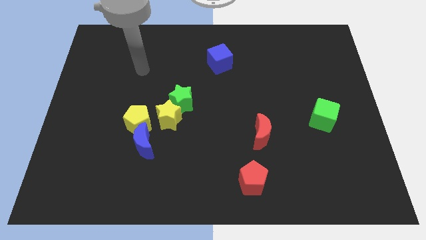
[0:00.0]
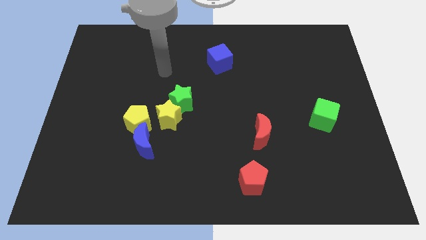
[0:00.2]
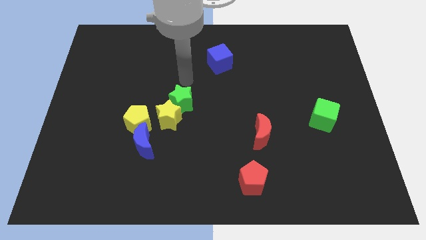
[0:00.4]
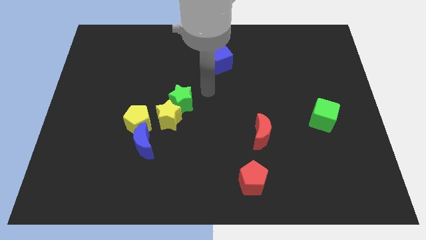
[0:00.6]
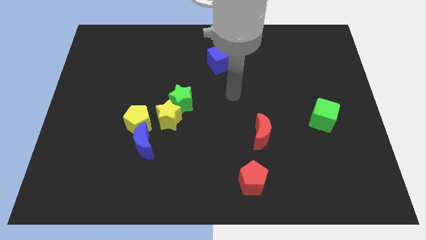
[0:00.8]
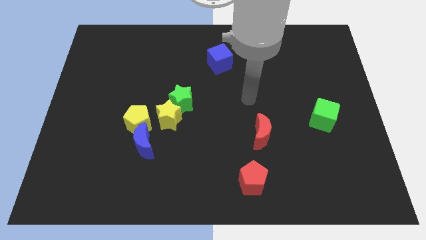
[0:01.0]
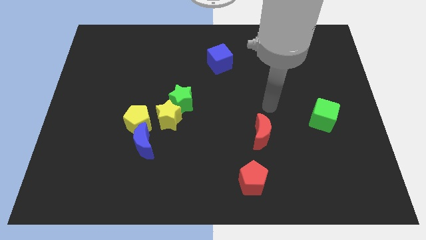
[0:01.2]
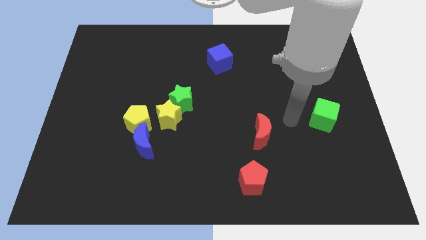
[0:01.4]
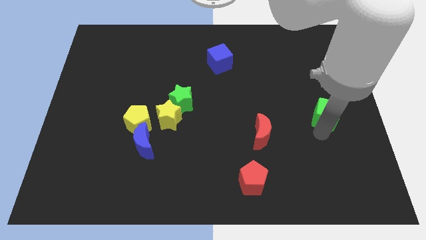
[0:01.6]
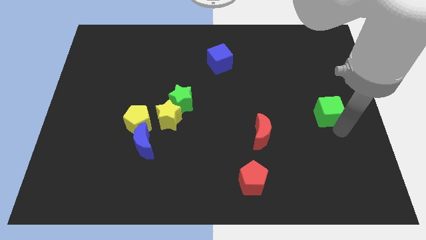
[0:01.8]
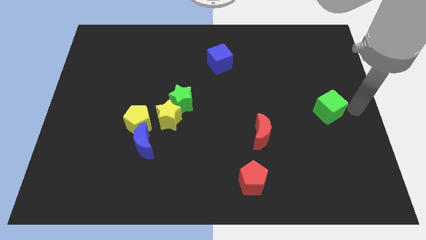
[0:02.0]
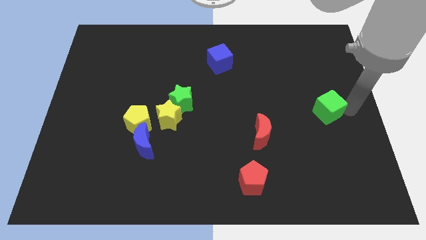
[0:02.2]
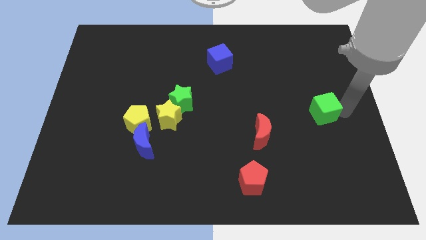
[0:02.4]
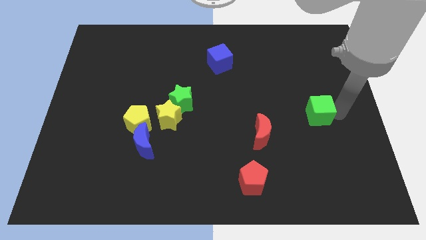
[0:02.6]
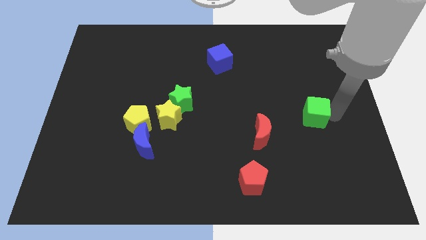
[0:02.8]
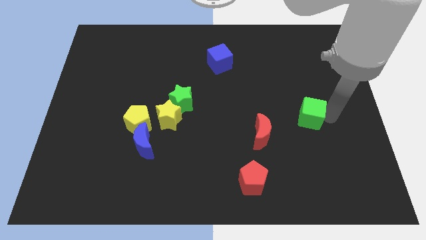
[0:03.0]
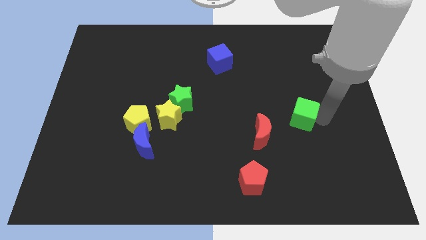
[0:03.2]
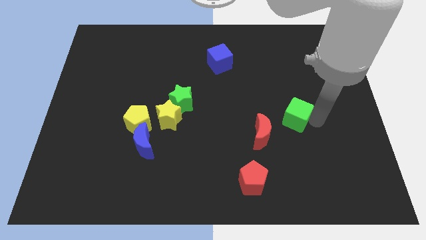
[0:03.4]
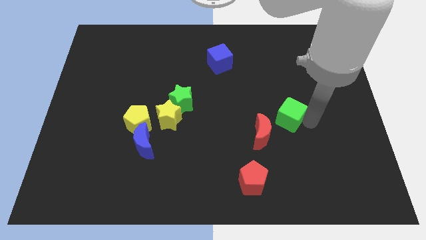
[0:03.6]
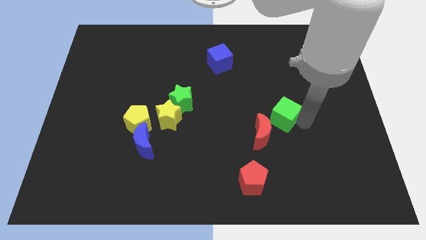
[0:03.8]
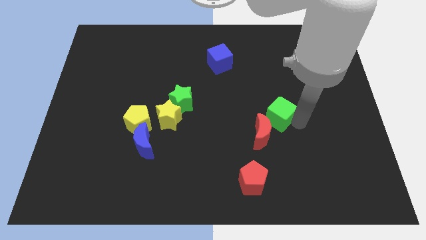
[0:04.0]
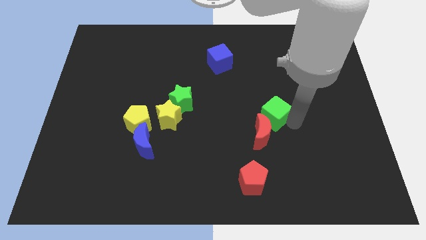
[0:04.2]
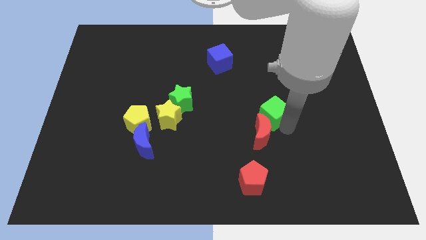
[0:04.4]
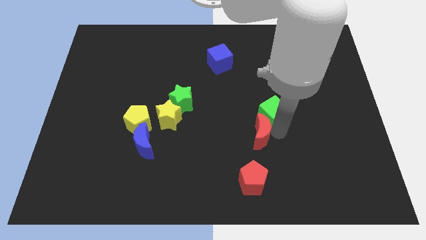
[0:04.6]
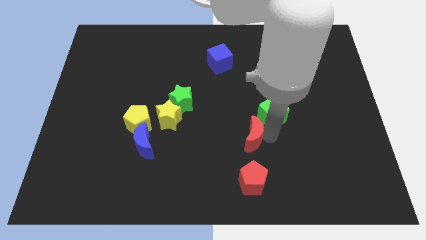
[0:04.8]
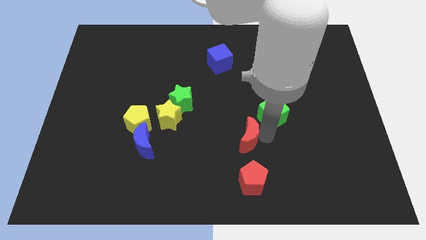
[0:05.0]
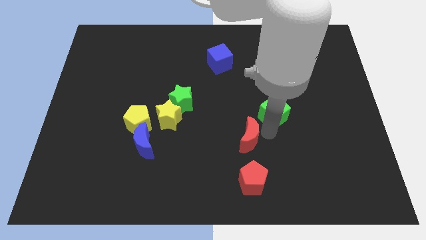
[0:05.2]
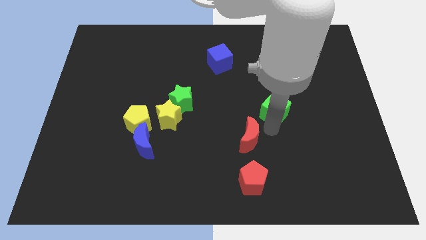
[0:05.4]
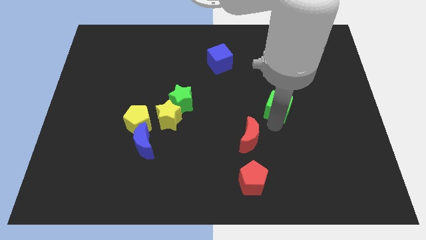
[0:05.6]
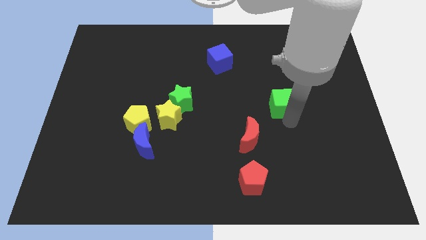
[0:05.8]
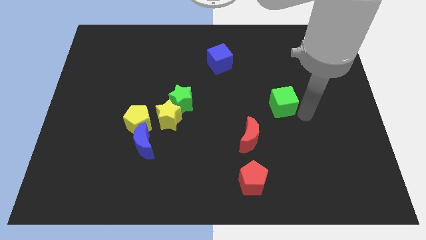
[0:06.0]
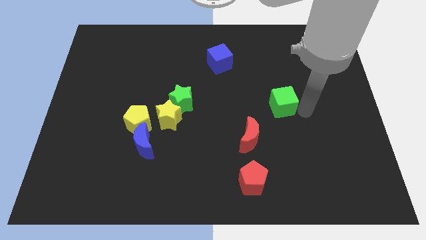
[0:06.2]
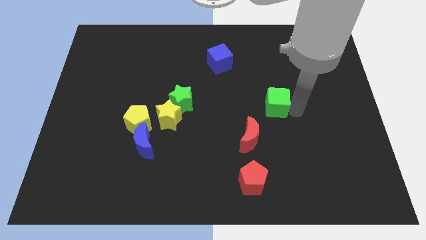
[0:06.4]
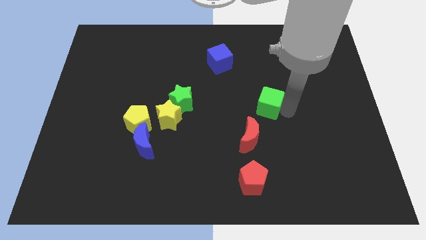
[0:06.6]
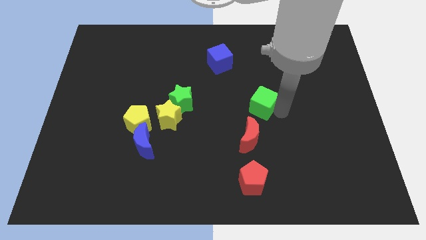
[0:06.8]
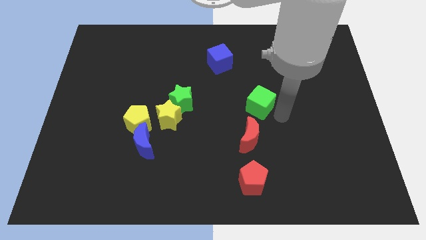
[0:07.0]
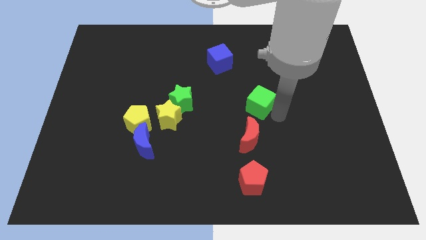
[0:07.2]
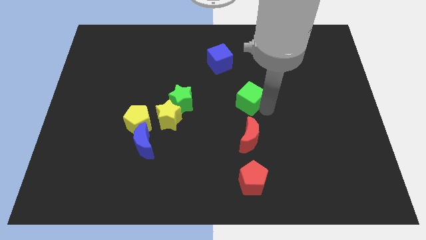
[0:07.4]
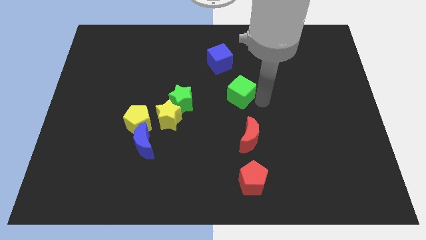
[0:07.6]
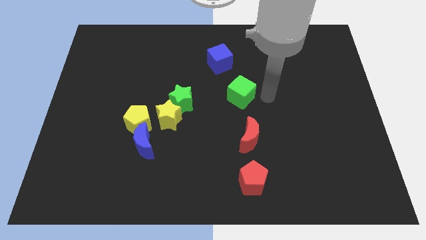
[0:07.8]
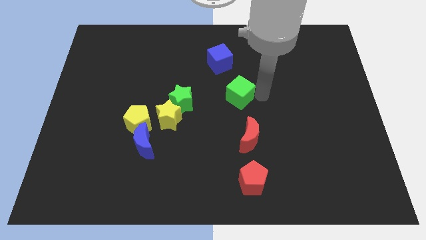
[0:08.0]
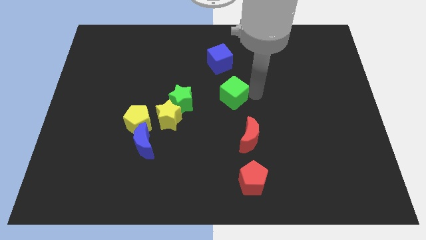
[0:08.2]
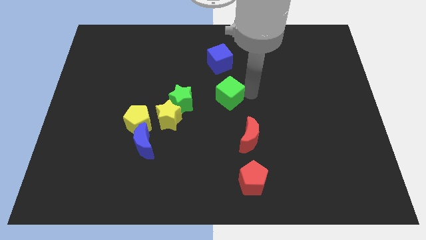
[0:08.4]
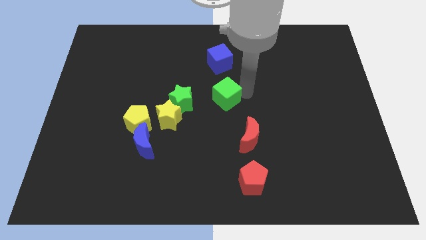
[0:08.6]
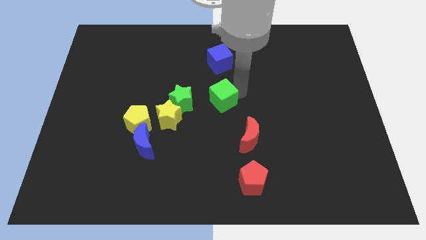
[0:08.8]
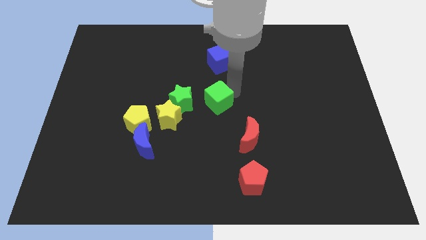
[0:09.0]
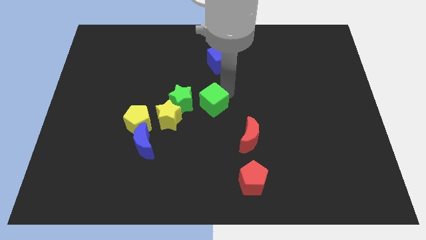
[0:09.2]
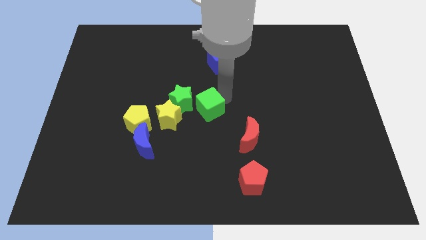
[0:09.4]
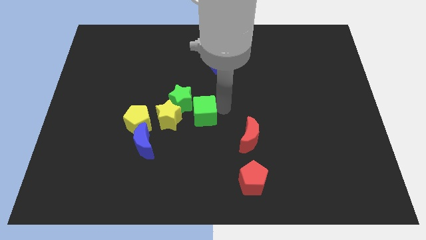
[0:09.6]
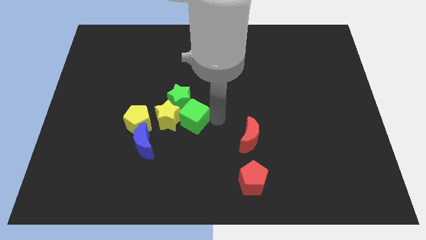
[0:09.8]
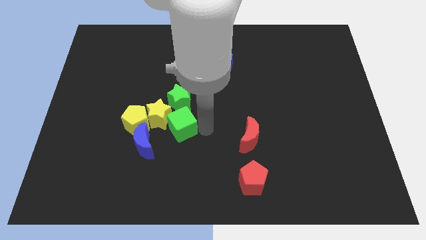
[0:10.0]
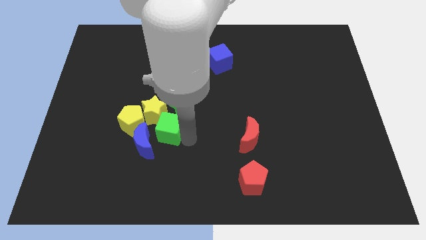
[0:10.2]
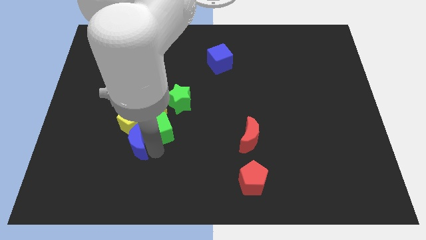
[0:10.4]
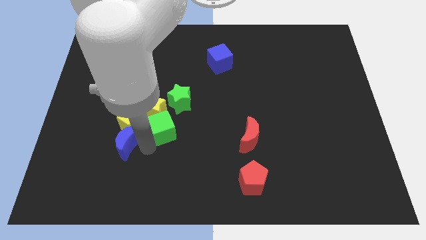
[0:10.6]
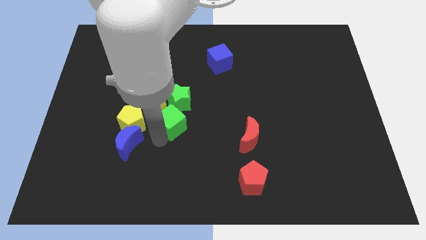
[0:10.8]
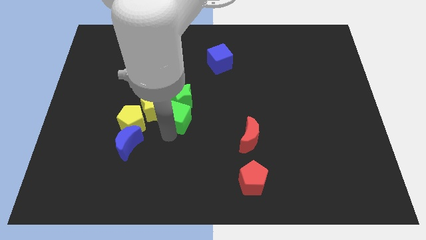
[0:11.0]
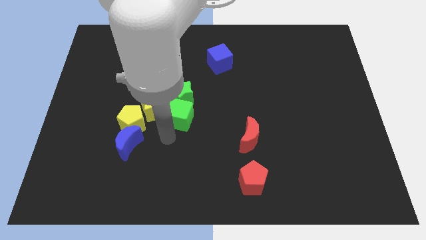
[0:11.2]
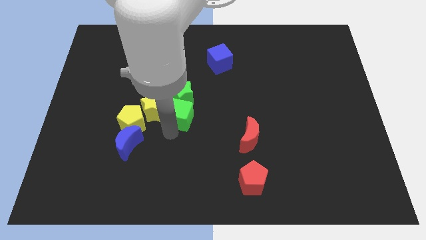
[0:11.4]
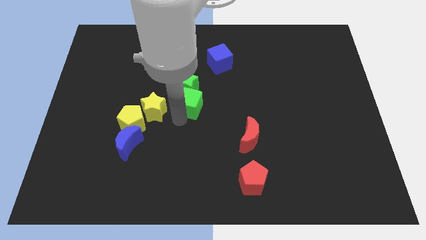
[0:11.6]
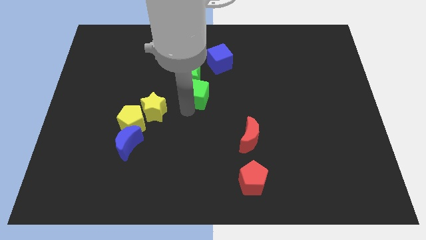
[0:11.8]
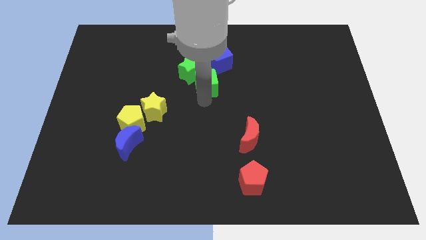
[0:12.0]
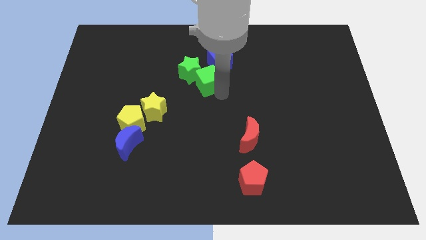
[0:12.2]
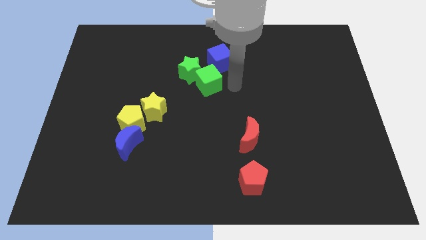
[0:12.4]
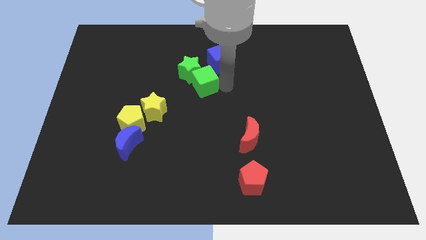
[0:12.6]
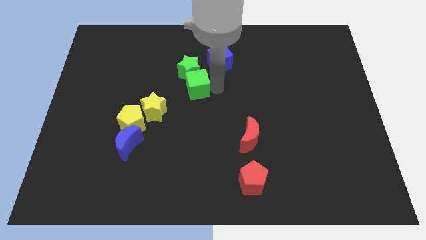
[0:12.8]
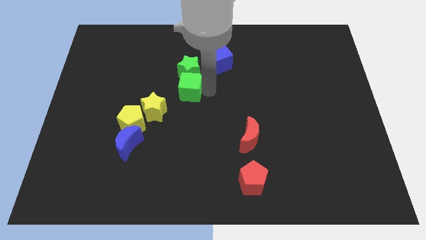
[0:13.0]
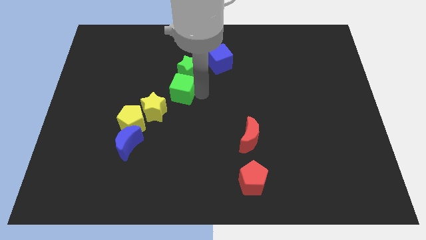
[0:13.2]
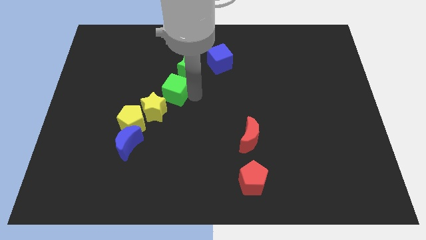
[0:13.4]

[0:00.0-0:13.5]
push the green cube to the top side of the yellow star

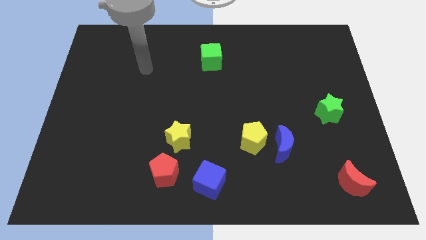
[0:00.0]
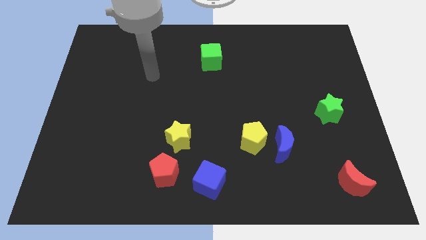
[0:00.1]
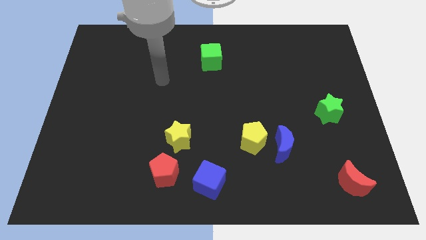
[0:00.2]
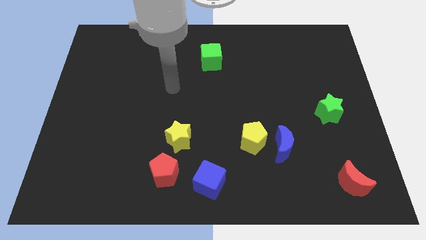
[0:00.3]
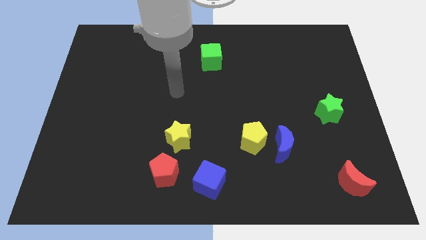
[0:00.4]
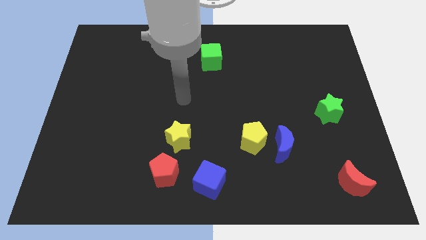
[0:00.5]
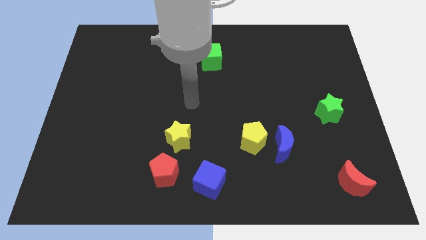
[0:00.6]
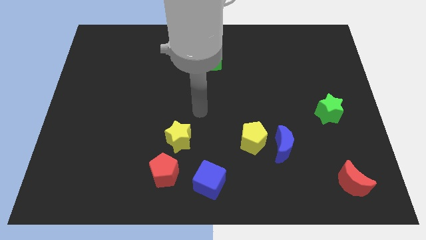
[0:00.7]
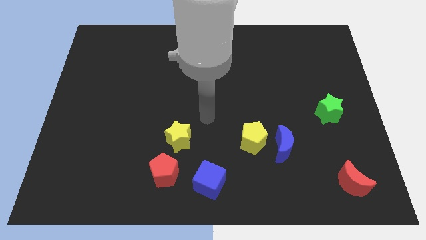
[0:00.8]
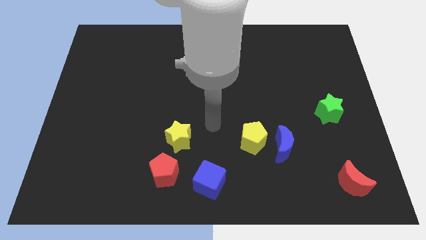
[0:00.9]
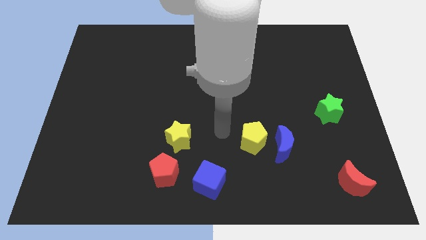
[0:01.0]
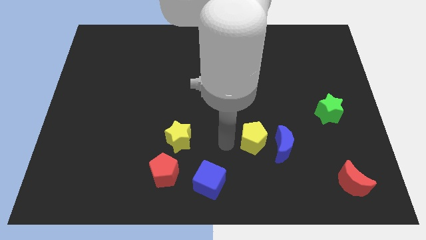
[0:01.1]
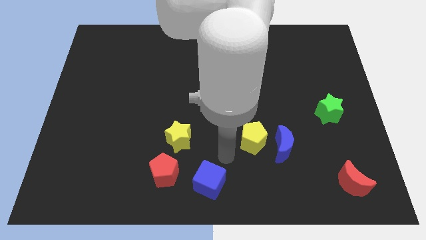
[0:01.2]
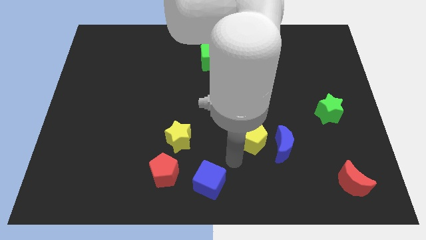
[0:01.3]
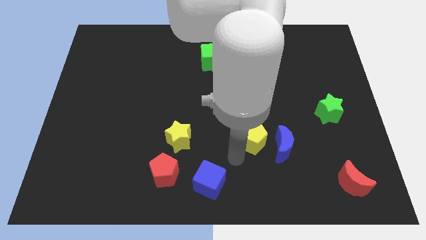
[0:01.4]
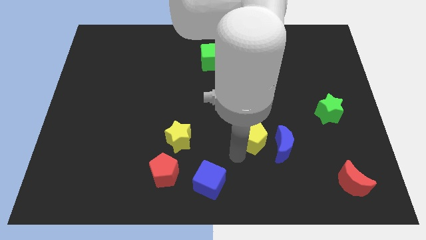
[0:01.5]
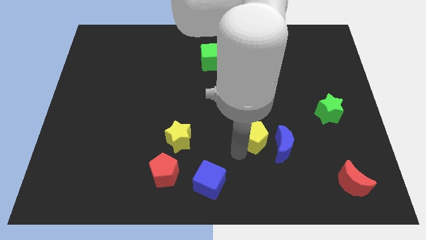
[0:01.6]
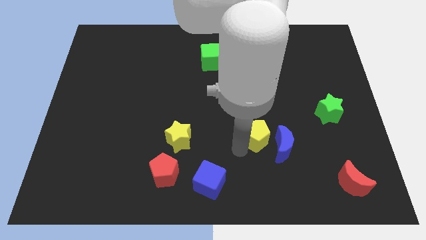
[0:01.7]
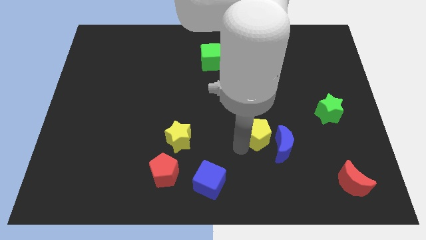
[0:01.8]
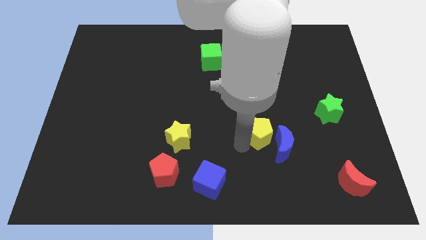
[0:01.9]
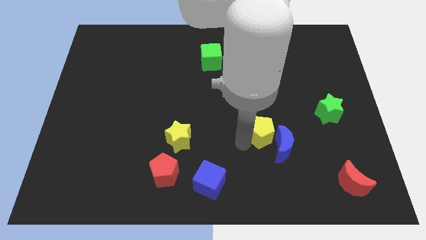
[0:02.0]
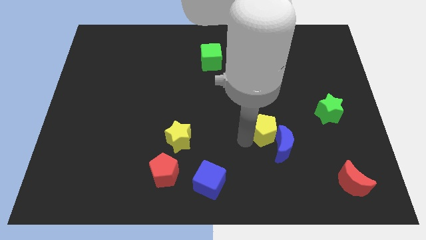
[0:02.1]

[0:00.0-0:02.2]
slide the yellow pentagon to the top side of the blue moon
